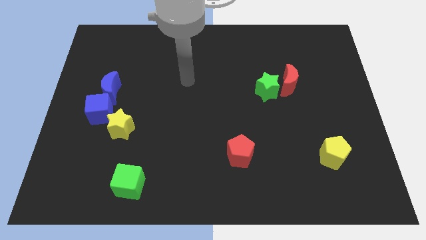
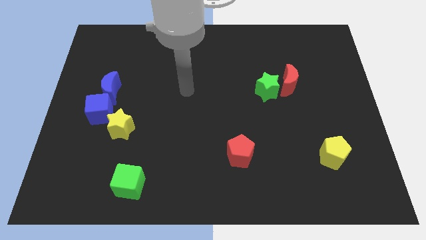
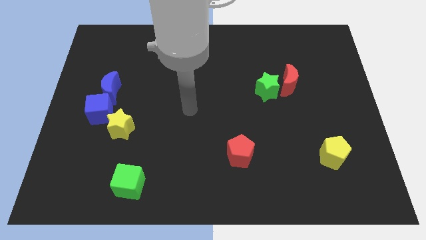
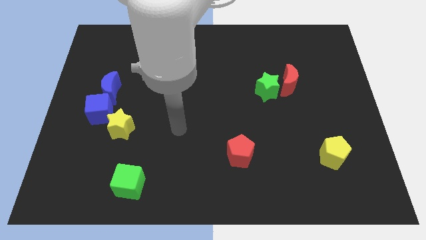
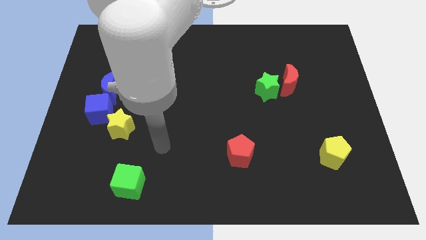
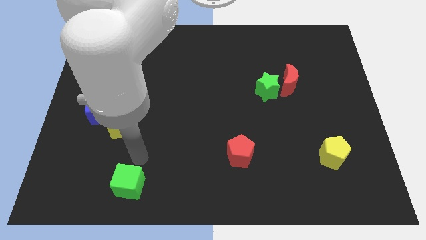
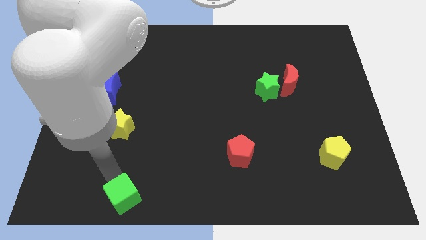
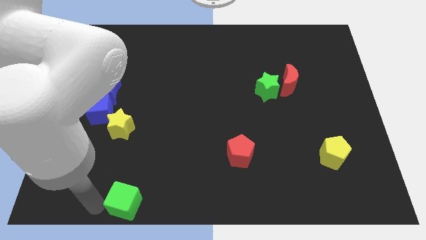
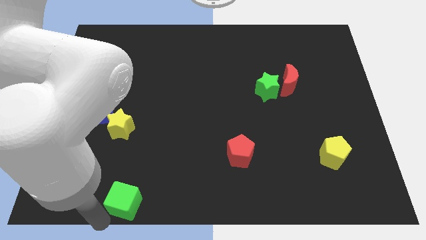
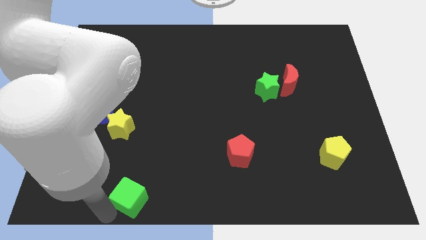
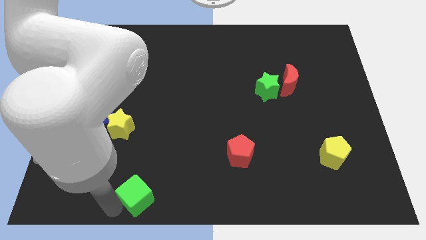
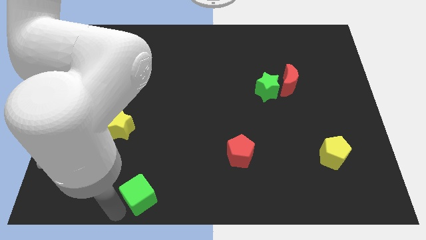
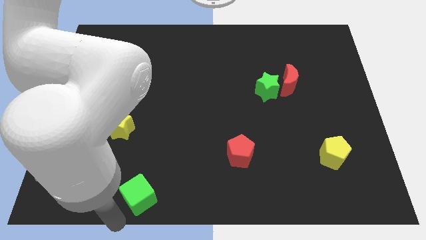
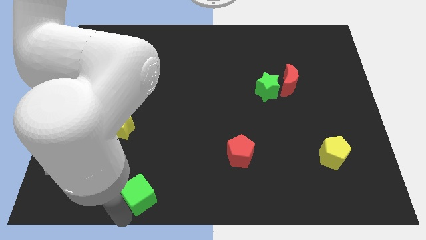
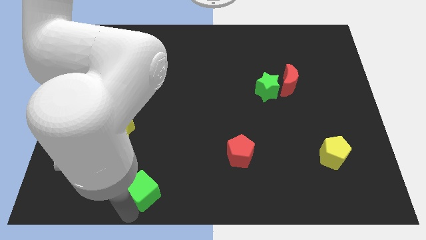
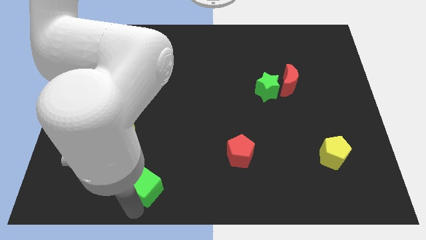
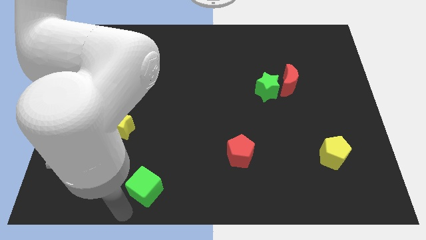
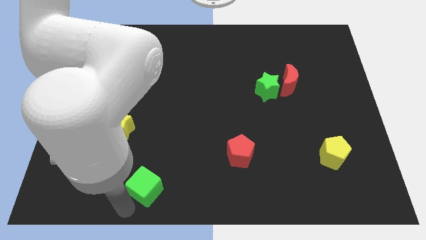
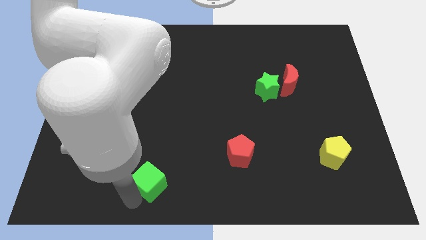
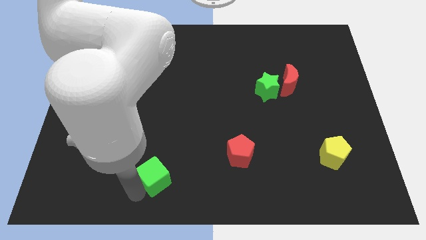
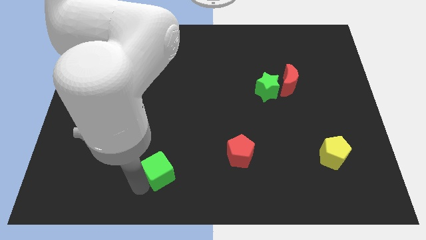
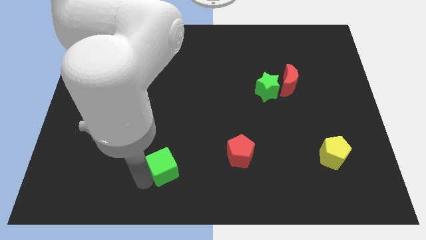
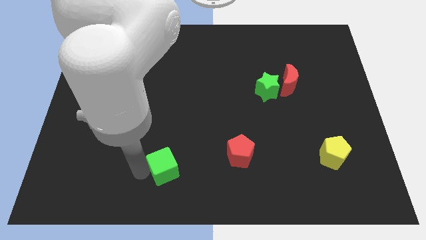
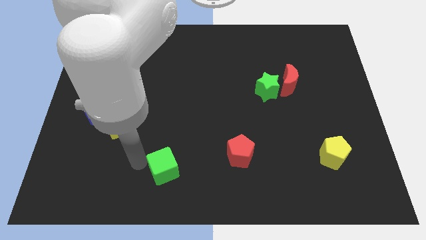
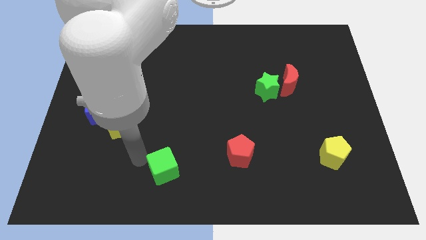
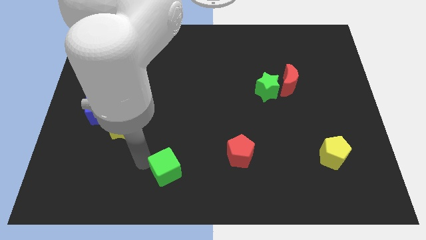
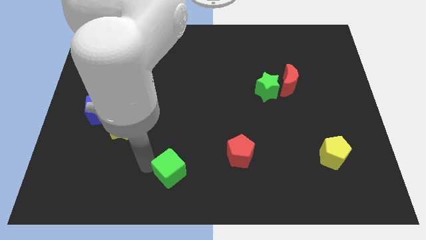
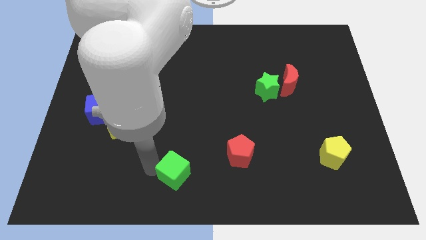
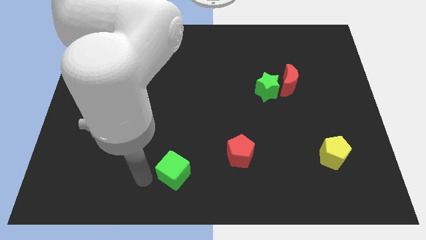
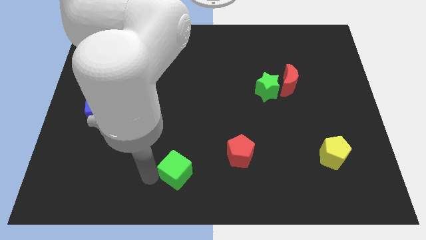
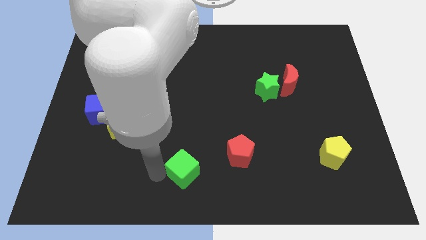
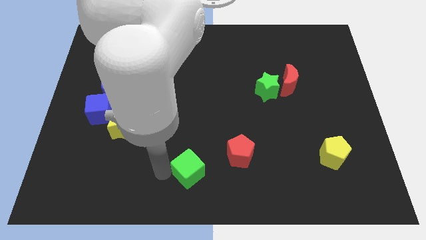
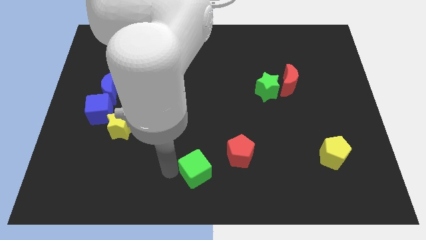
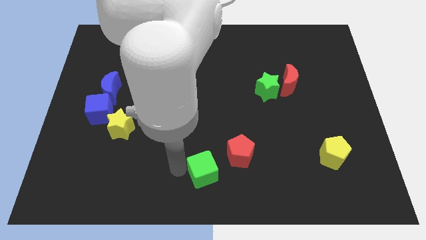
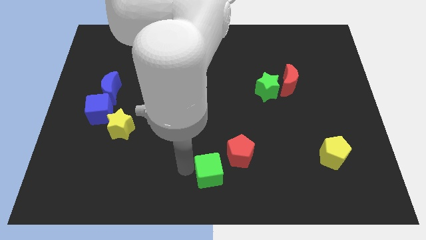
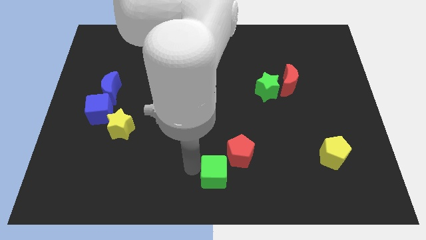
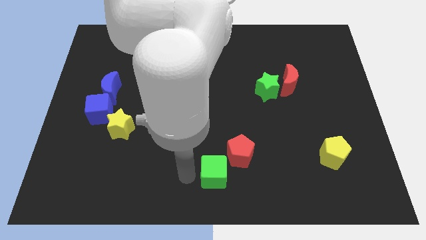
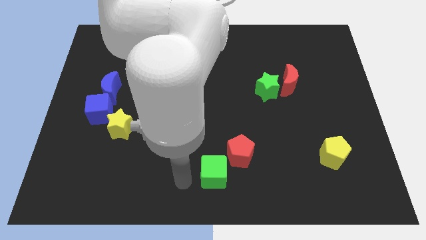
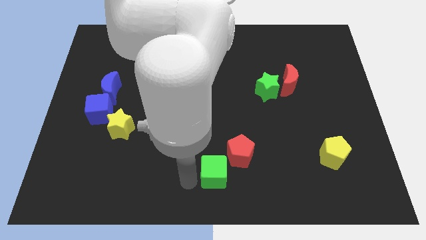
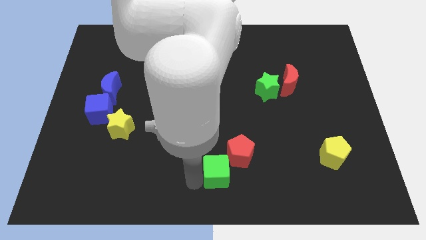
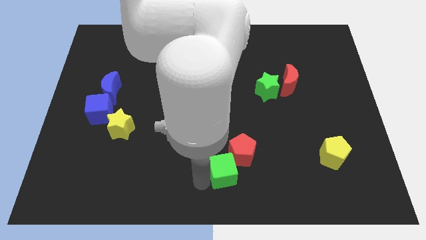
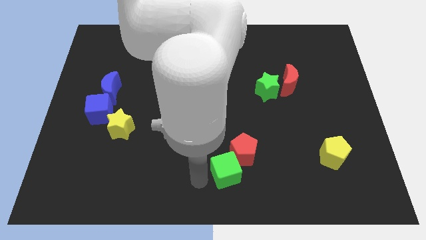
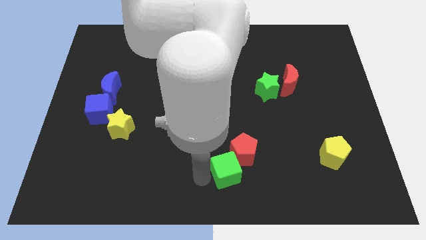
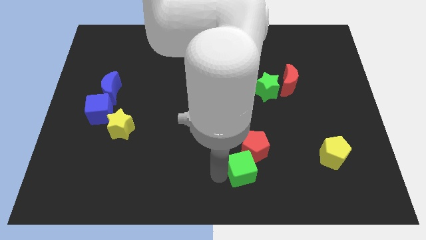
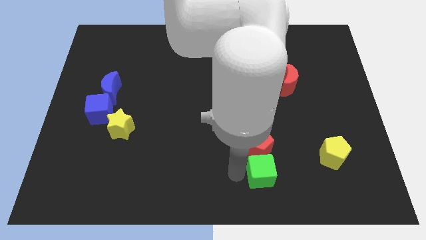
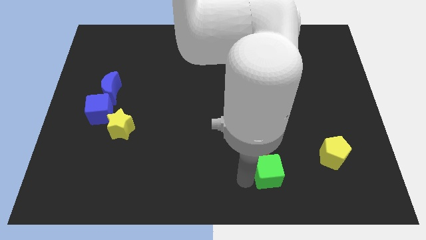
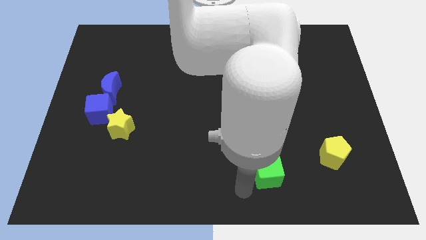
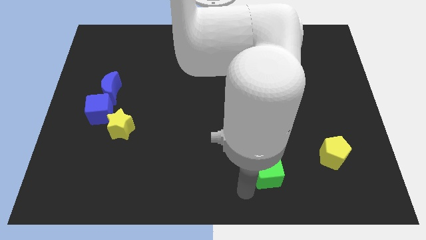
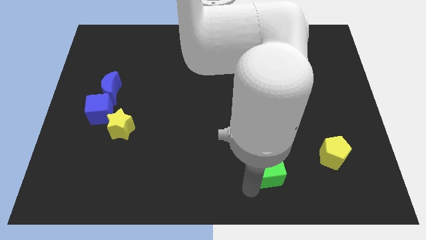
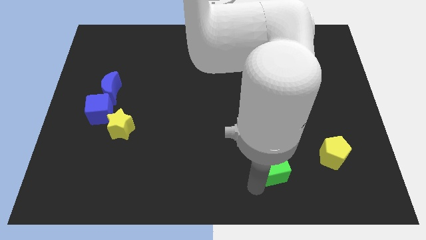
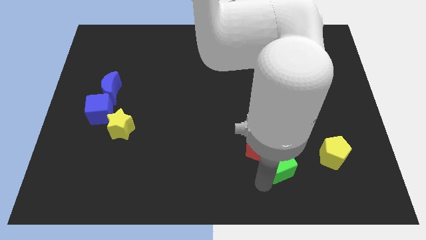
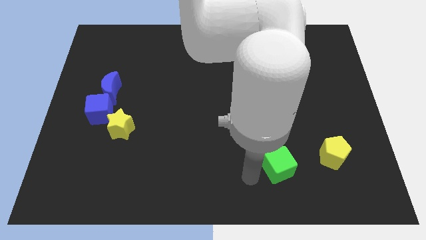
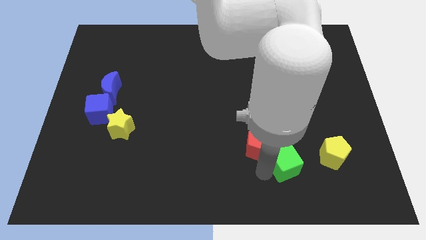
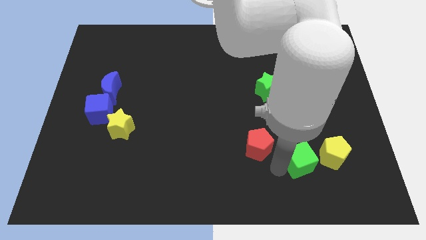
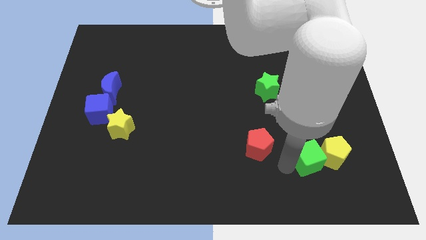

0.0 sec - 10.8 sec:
slide the green cube next to the yellow pentagon

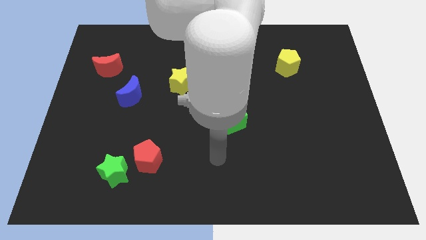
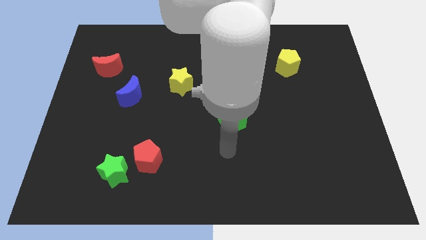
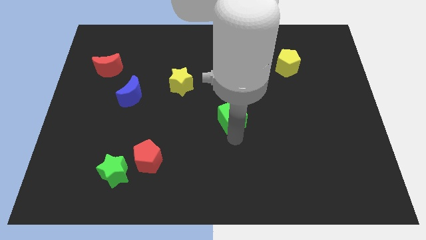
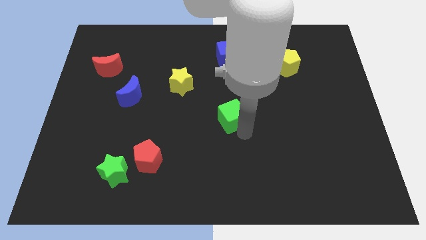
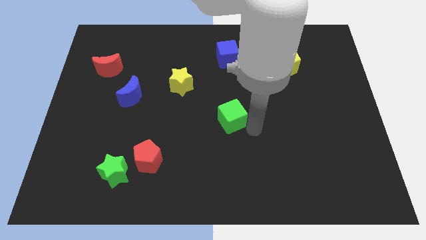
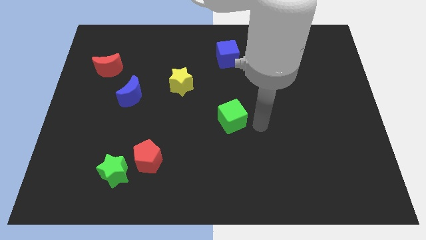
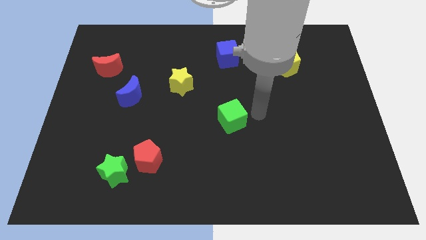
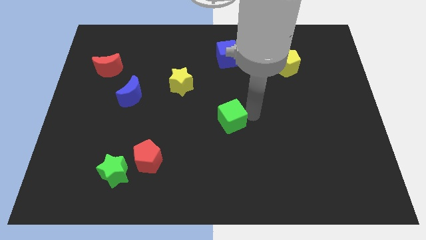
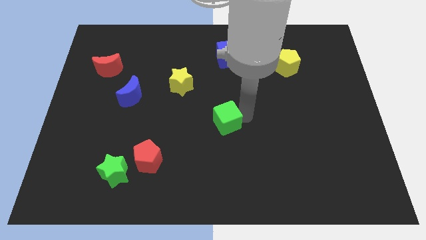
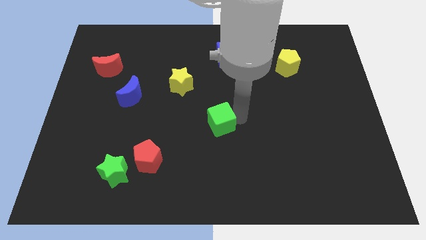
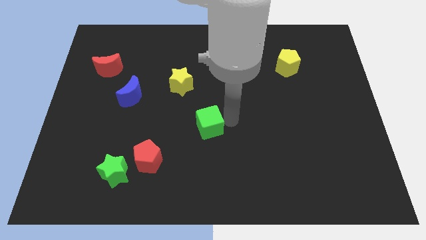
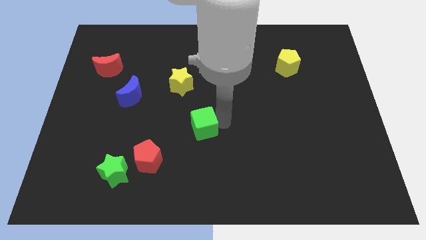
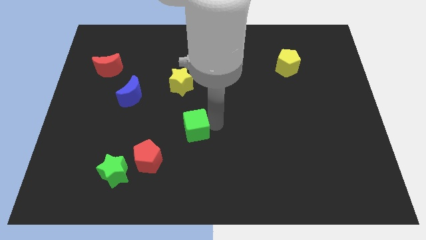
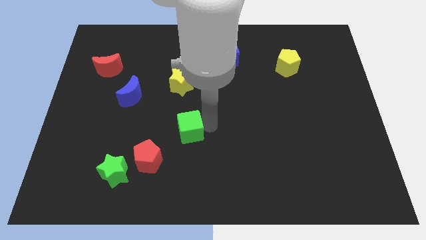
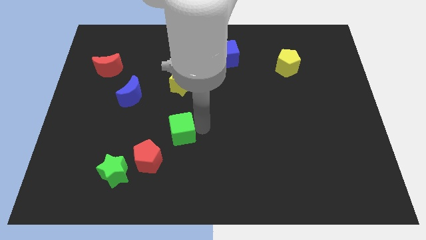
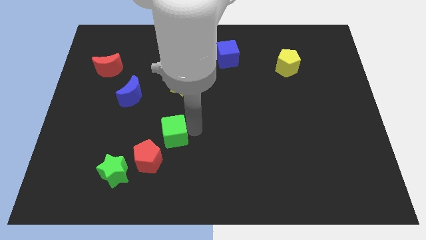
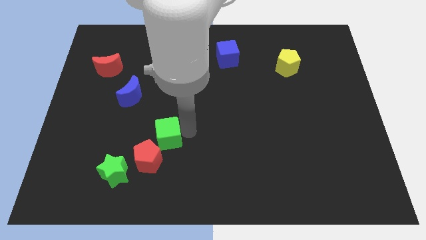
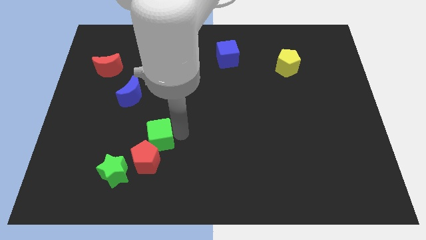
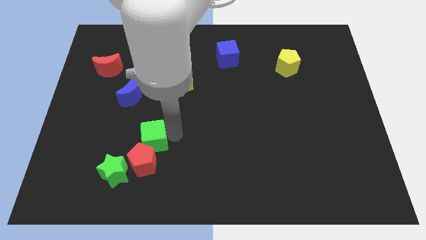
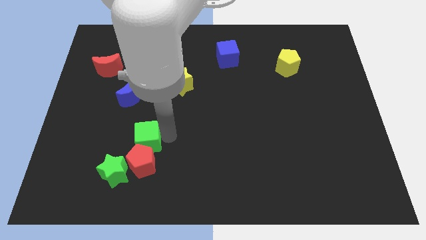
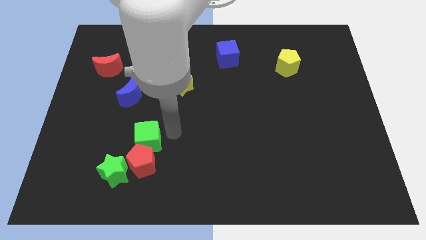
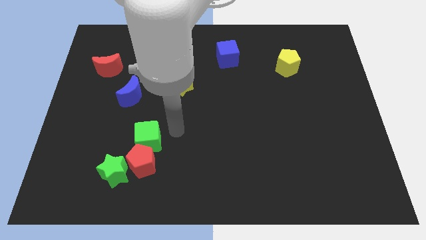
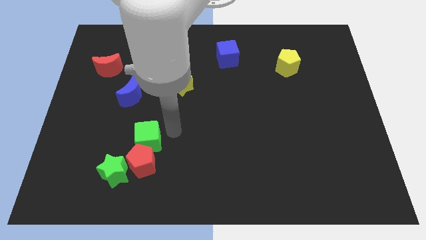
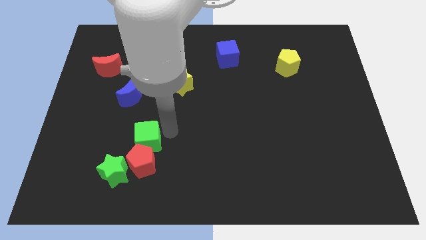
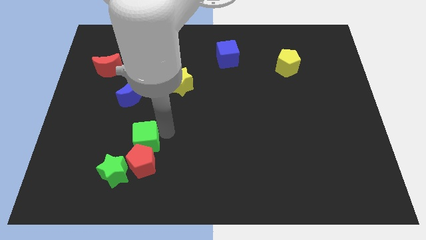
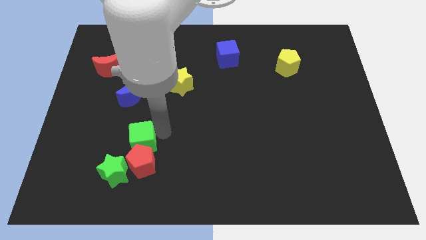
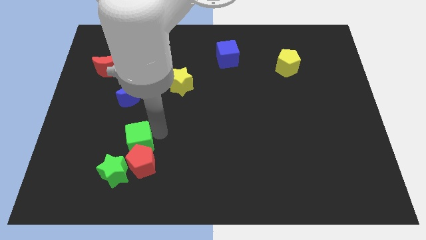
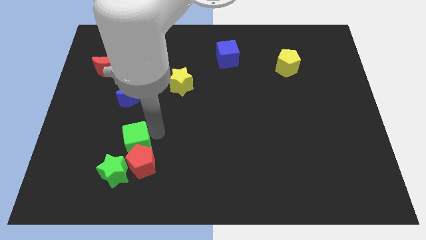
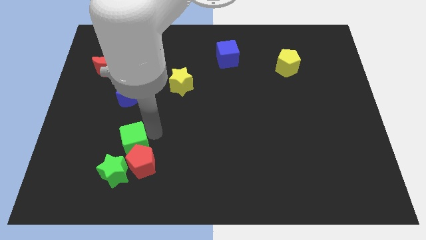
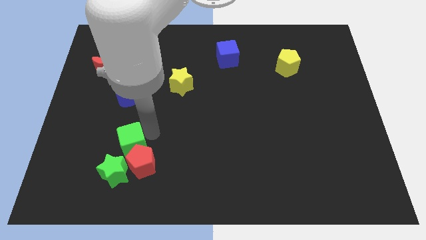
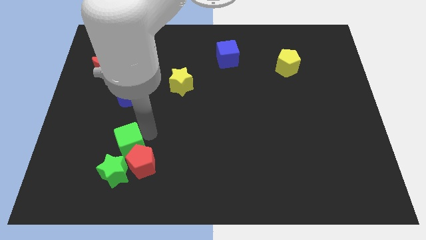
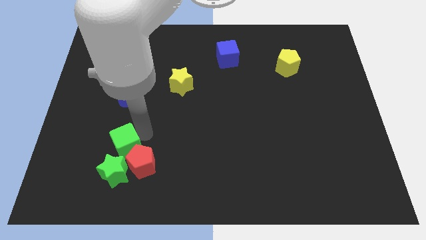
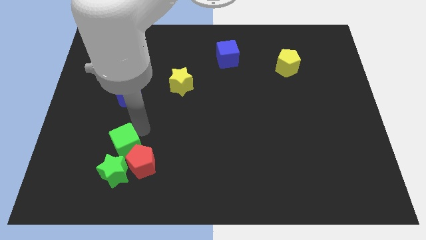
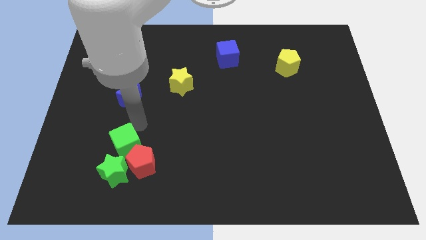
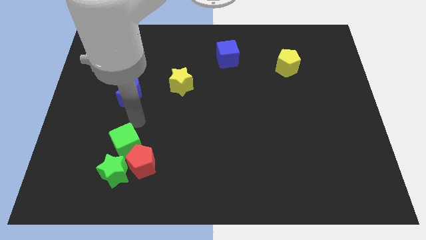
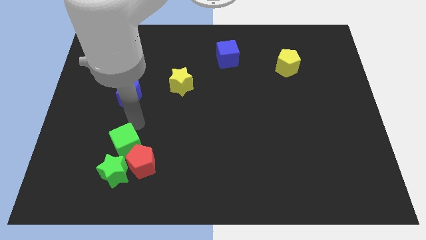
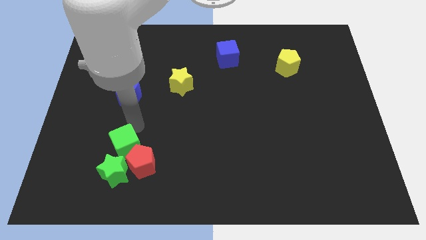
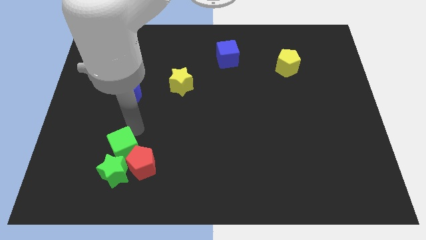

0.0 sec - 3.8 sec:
put the green cube next to the green star
